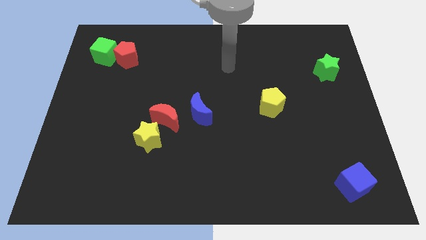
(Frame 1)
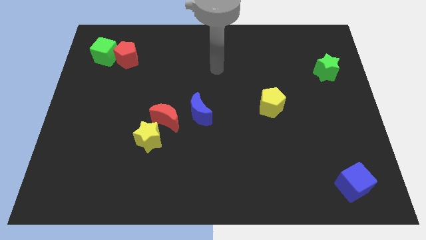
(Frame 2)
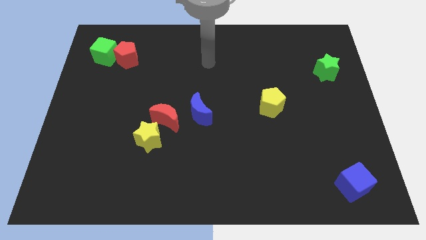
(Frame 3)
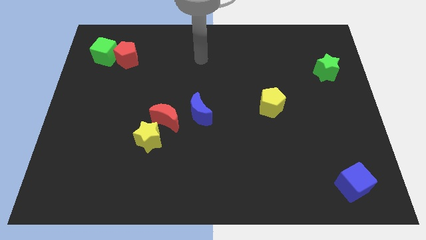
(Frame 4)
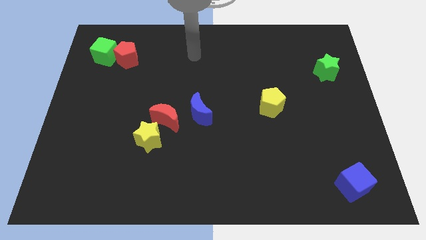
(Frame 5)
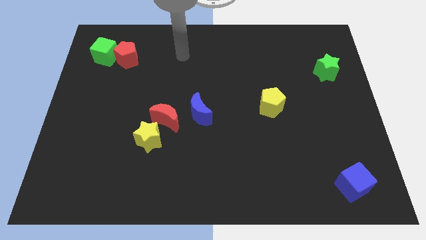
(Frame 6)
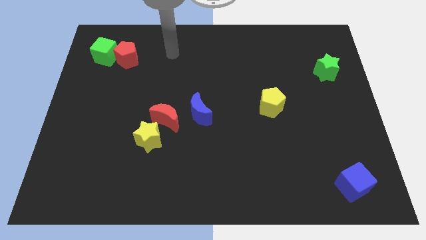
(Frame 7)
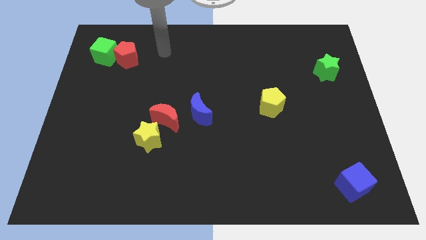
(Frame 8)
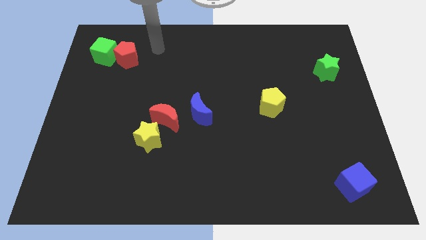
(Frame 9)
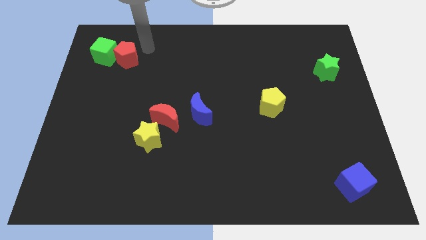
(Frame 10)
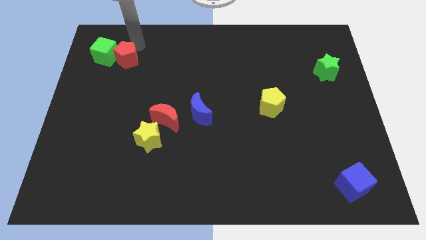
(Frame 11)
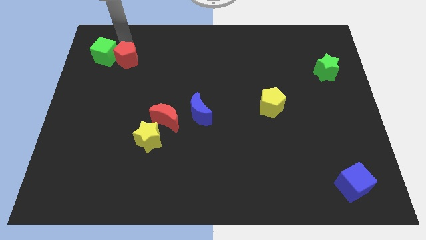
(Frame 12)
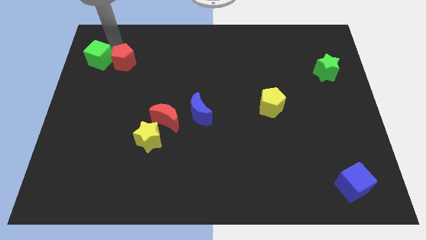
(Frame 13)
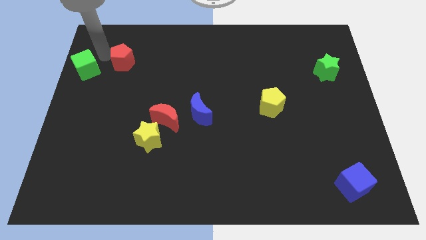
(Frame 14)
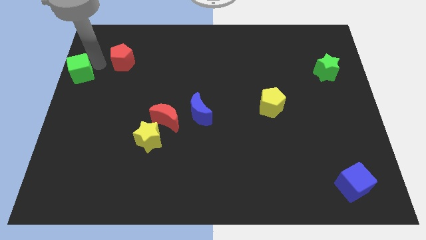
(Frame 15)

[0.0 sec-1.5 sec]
pull the red pentagon apart from the green cube

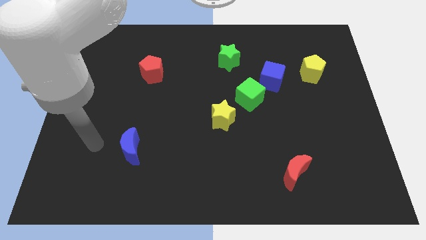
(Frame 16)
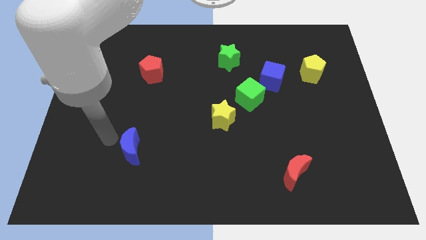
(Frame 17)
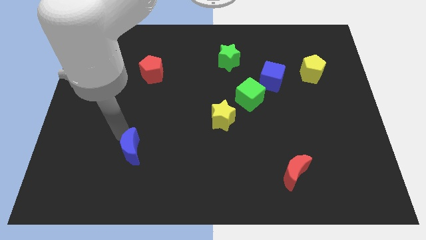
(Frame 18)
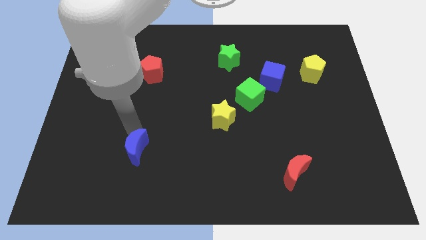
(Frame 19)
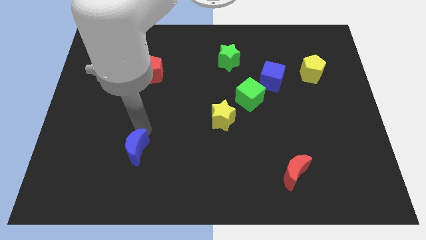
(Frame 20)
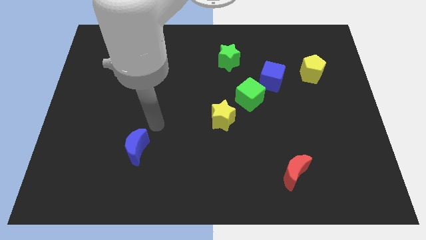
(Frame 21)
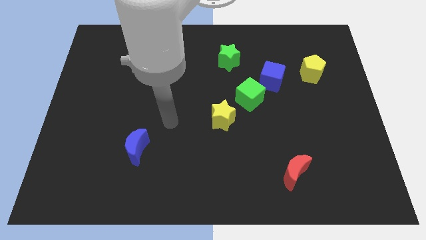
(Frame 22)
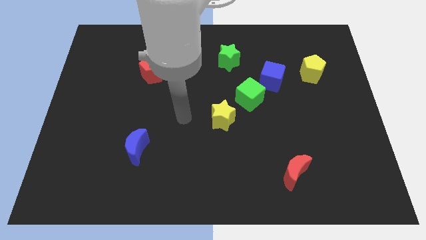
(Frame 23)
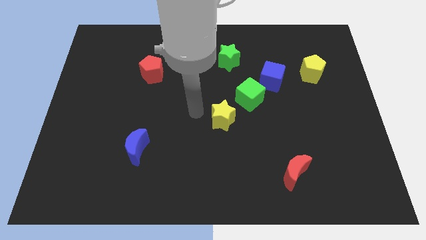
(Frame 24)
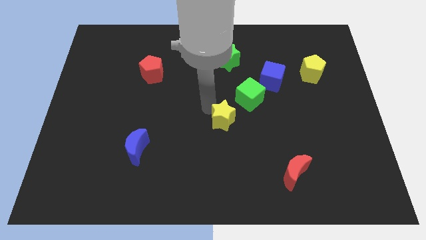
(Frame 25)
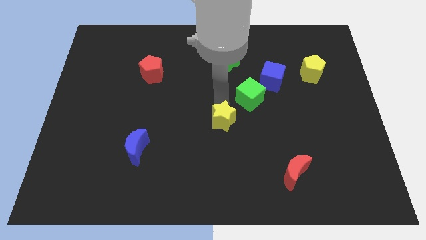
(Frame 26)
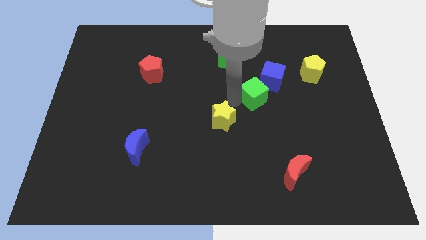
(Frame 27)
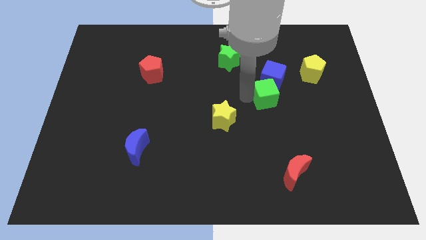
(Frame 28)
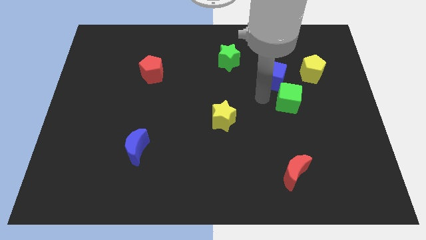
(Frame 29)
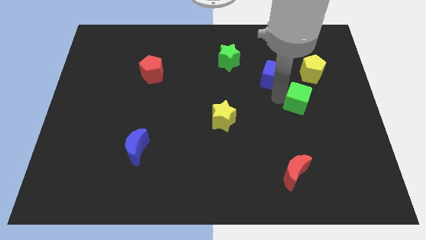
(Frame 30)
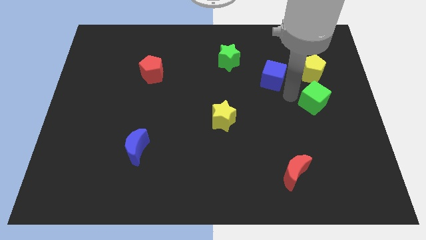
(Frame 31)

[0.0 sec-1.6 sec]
move the blue cube away from the green cube

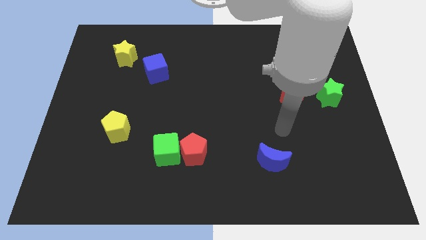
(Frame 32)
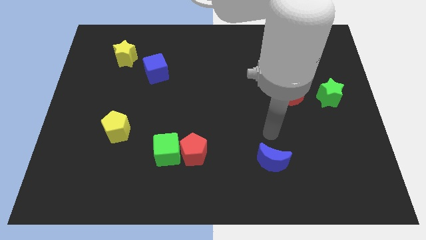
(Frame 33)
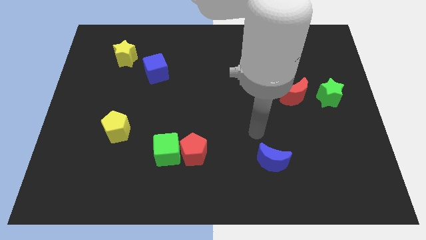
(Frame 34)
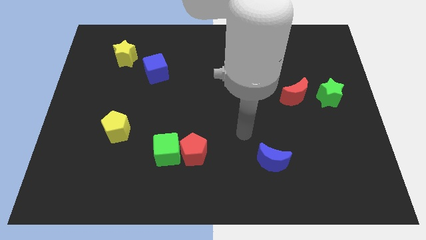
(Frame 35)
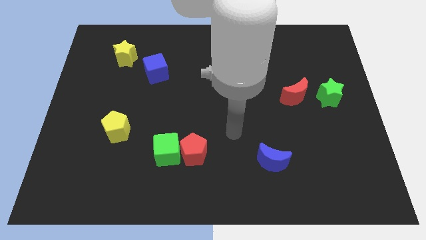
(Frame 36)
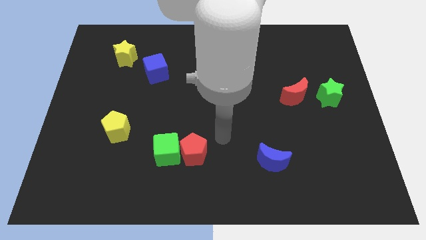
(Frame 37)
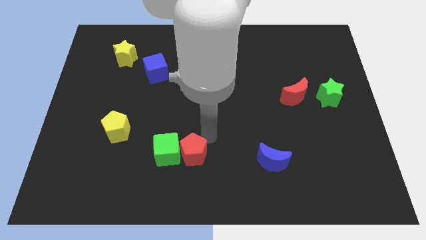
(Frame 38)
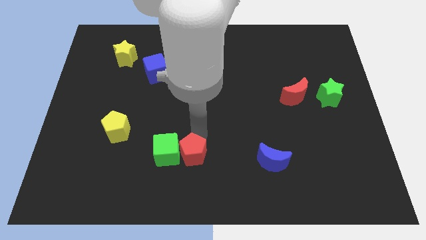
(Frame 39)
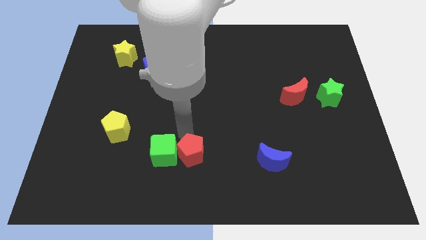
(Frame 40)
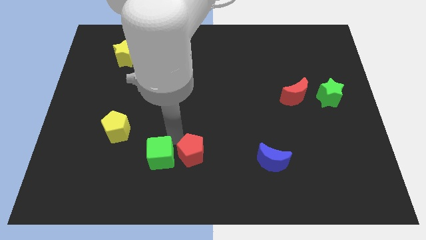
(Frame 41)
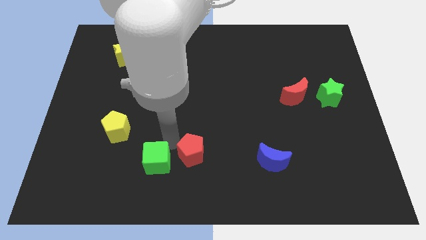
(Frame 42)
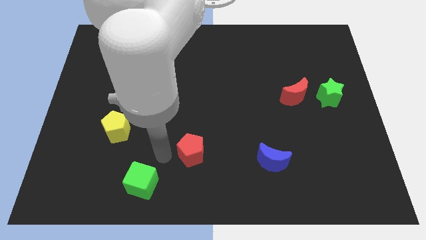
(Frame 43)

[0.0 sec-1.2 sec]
separate the red pentagon from the green cube

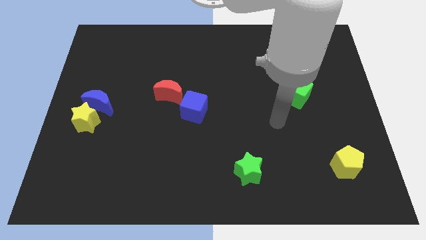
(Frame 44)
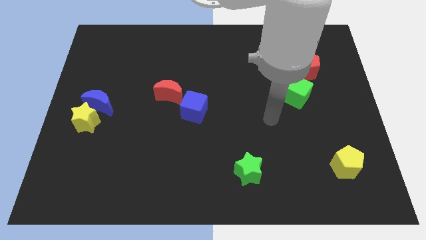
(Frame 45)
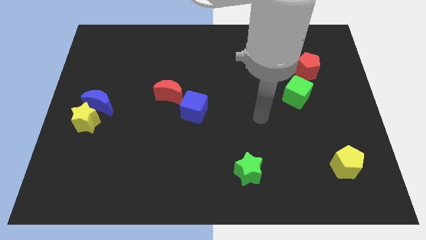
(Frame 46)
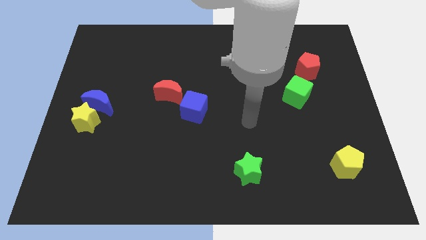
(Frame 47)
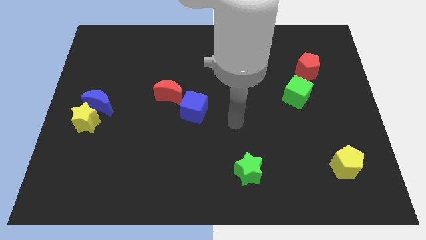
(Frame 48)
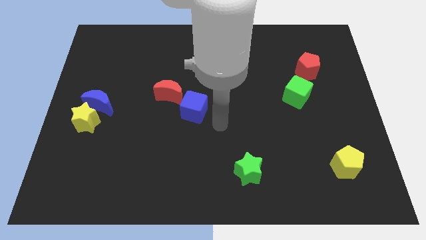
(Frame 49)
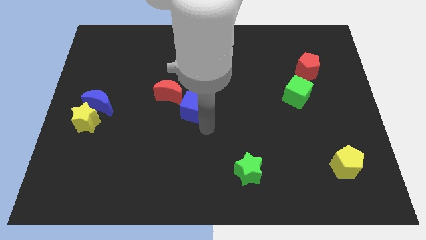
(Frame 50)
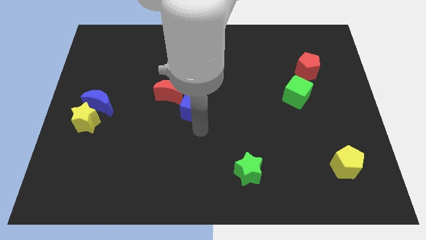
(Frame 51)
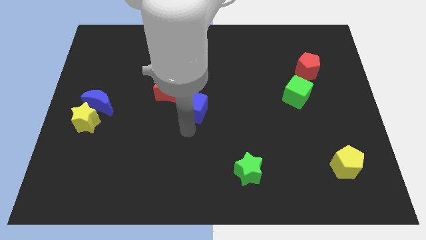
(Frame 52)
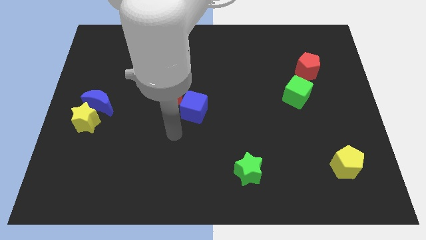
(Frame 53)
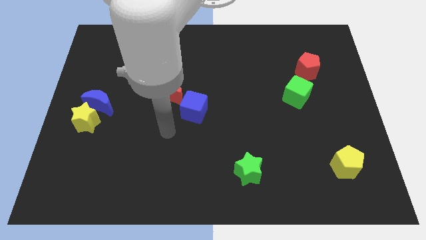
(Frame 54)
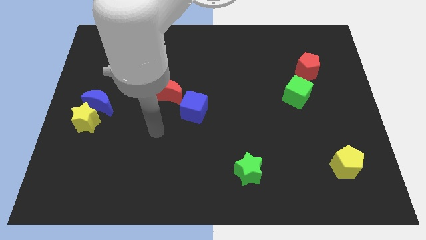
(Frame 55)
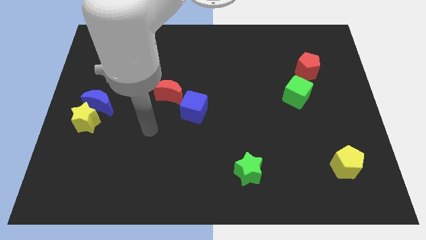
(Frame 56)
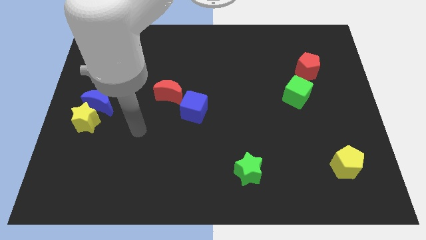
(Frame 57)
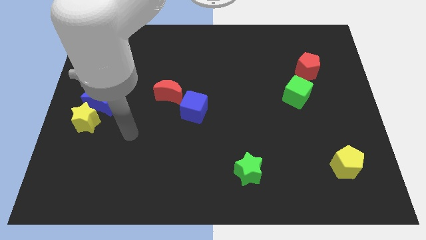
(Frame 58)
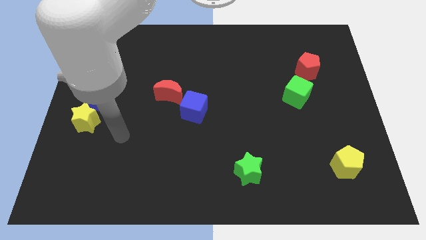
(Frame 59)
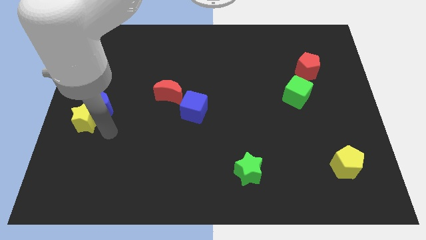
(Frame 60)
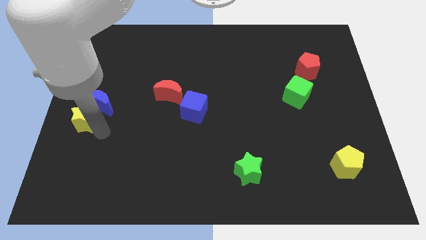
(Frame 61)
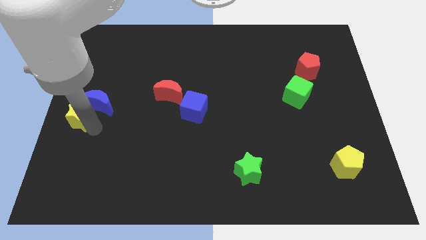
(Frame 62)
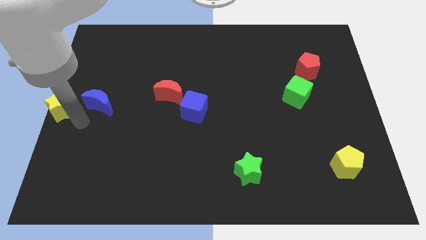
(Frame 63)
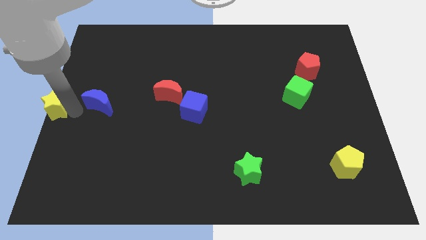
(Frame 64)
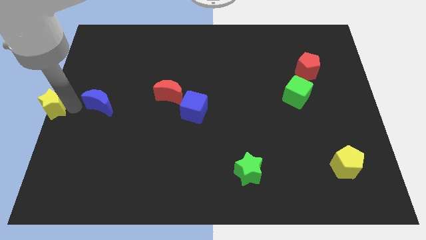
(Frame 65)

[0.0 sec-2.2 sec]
pull the blue moon apart from the yellow star

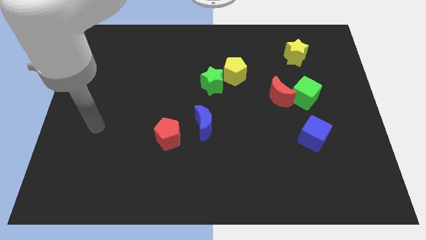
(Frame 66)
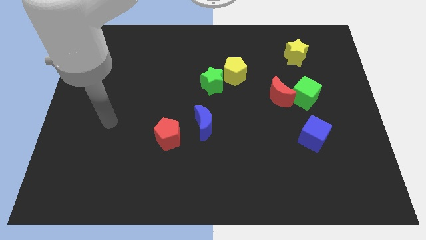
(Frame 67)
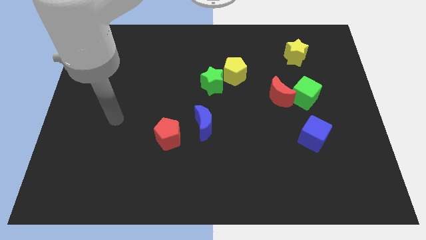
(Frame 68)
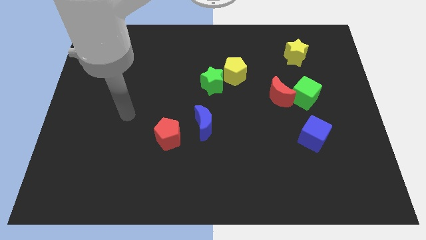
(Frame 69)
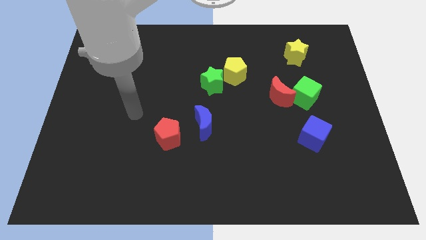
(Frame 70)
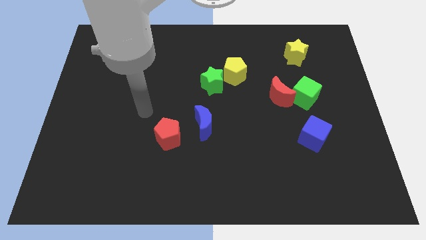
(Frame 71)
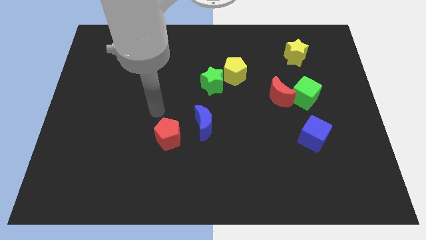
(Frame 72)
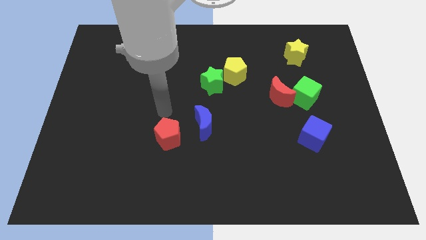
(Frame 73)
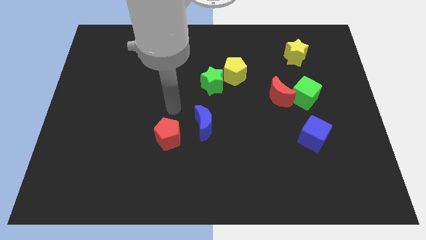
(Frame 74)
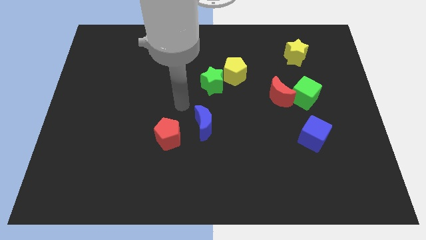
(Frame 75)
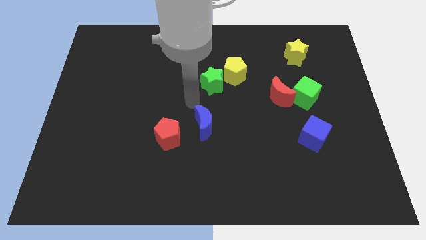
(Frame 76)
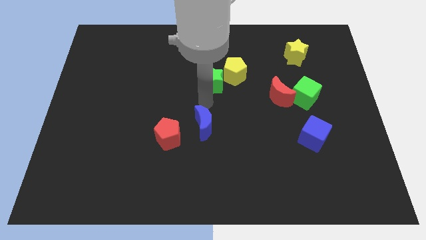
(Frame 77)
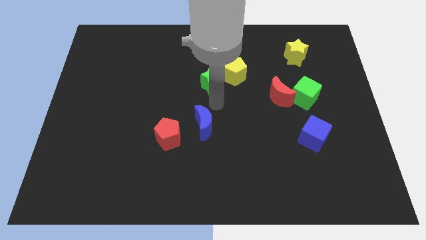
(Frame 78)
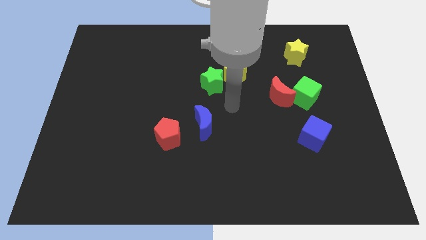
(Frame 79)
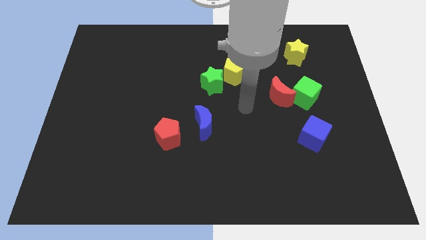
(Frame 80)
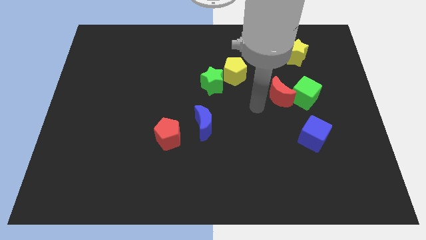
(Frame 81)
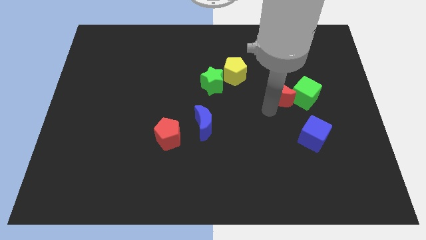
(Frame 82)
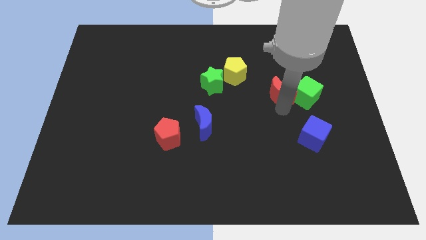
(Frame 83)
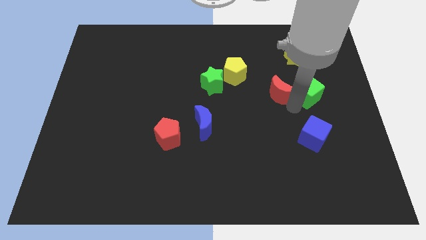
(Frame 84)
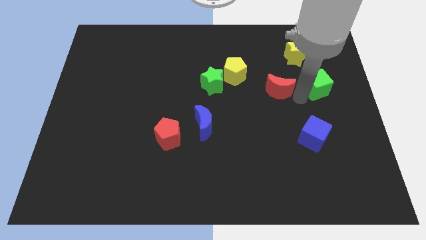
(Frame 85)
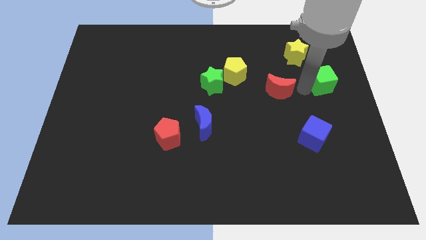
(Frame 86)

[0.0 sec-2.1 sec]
move the red moon away from the green cube

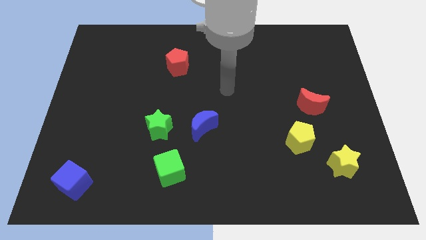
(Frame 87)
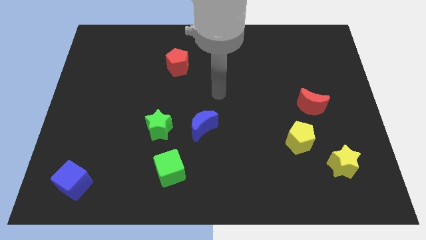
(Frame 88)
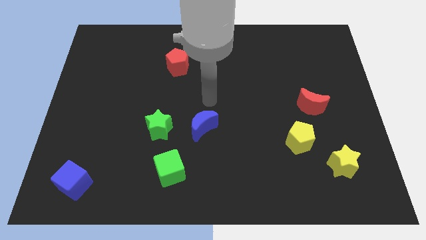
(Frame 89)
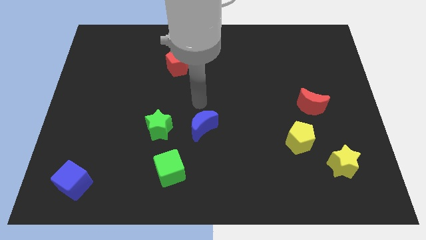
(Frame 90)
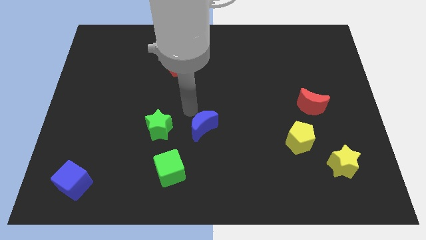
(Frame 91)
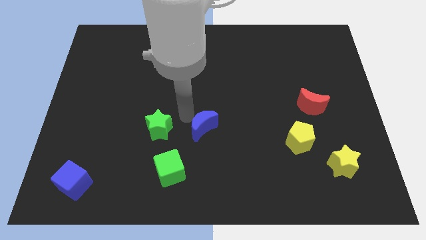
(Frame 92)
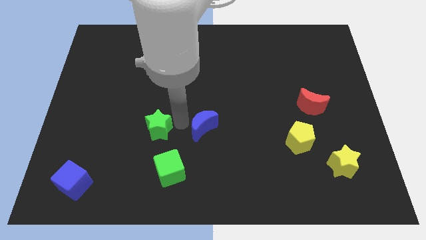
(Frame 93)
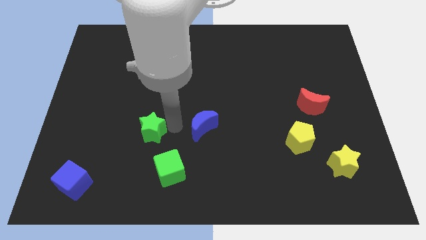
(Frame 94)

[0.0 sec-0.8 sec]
pull the blue moon apart from the green star
